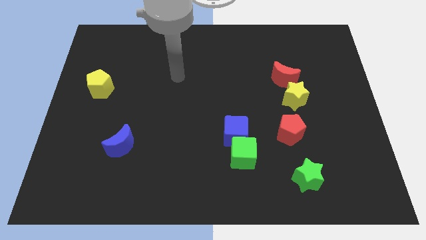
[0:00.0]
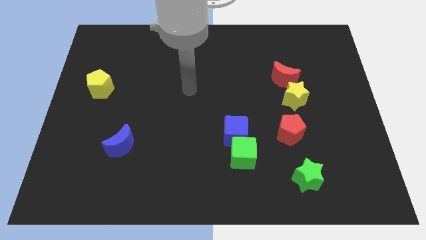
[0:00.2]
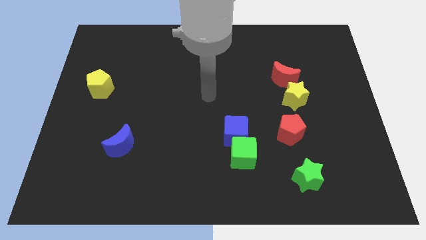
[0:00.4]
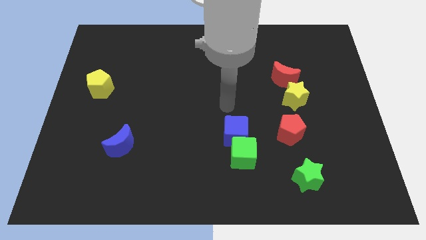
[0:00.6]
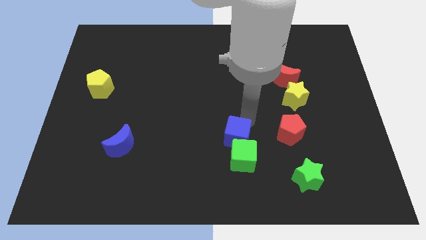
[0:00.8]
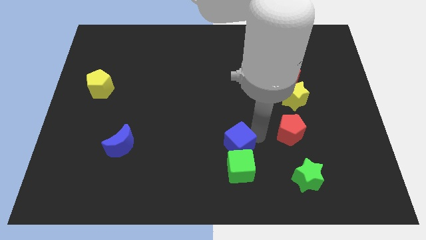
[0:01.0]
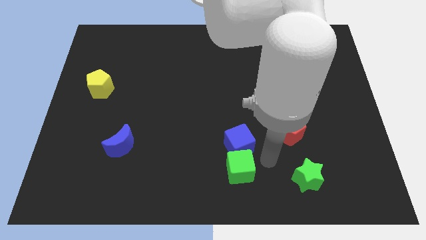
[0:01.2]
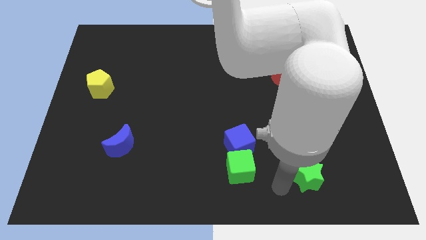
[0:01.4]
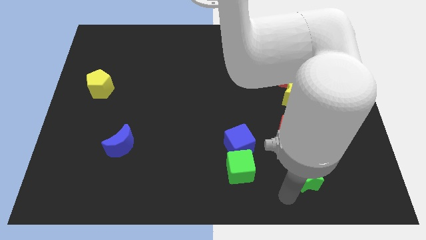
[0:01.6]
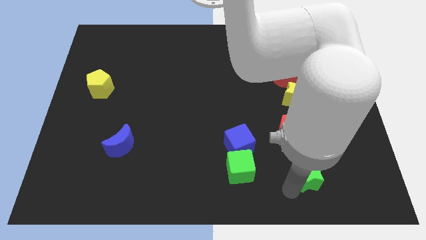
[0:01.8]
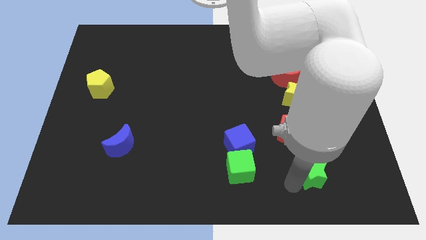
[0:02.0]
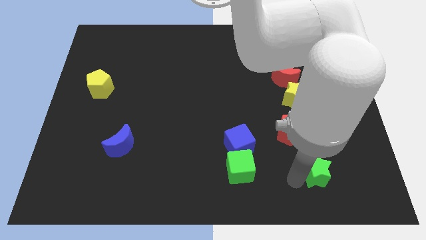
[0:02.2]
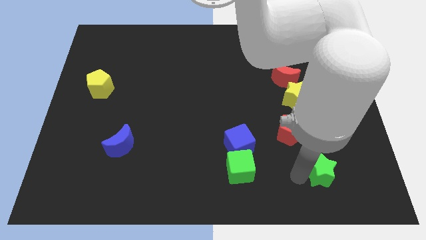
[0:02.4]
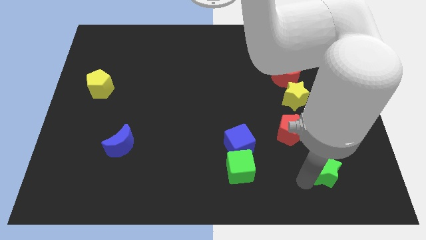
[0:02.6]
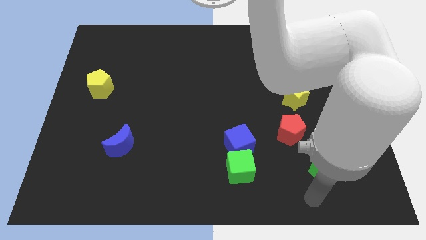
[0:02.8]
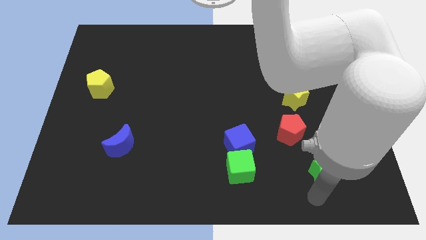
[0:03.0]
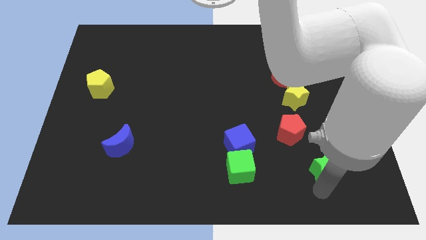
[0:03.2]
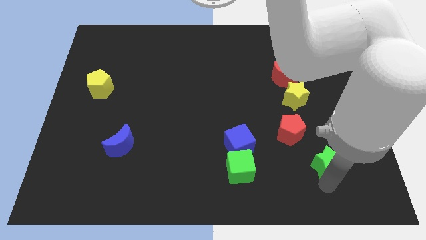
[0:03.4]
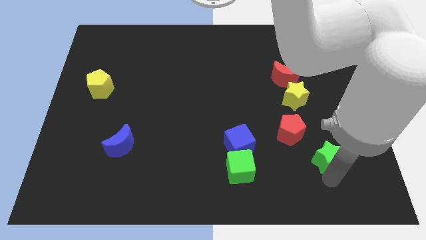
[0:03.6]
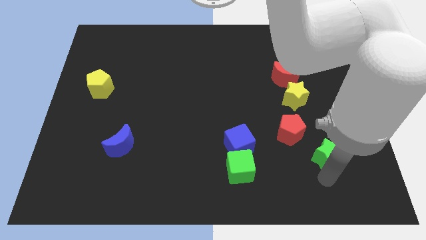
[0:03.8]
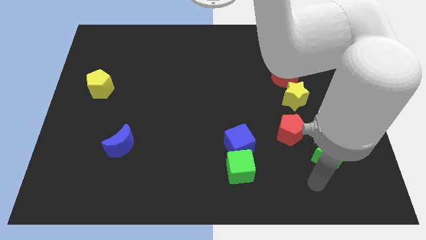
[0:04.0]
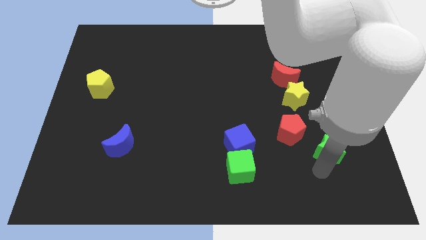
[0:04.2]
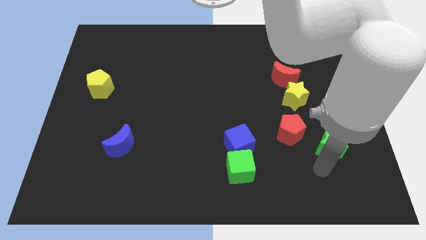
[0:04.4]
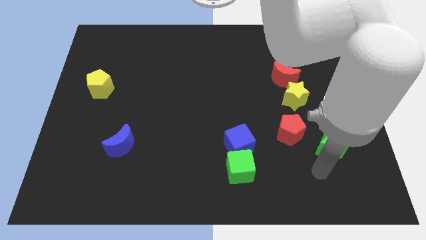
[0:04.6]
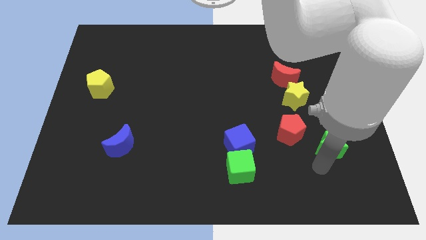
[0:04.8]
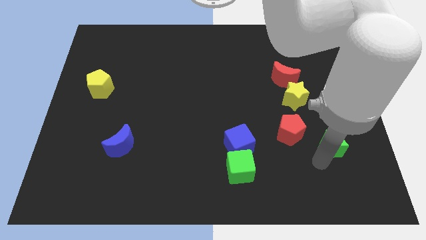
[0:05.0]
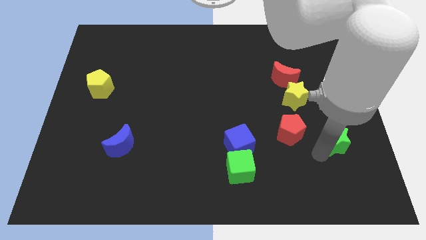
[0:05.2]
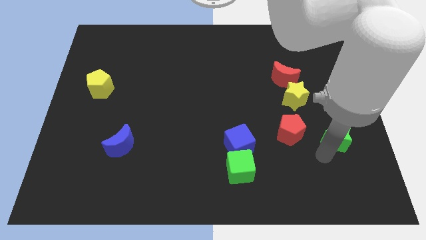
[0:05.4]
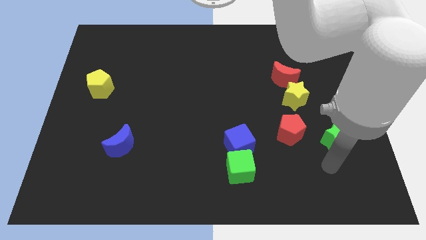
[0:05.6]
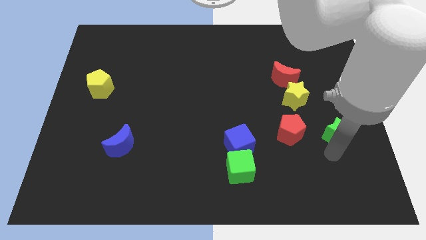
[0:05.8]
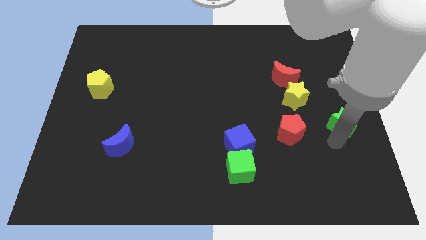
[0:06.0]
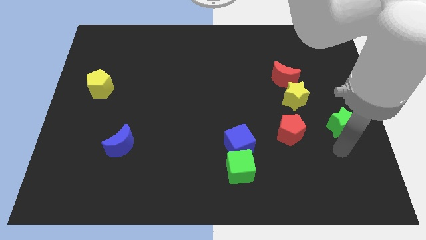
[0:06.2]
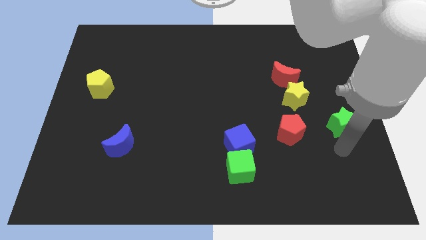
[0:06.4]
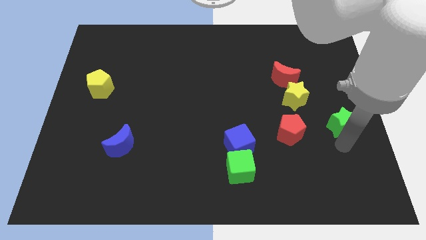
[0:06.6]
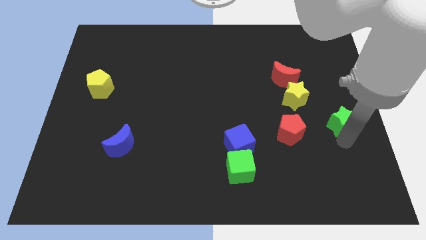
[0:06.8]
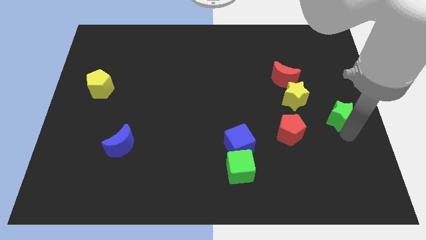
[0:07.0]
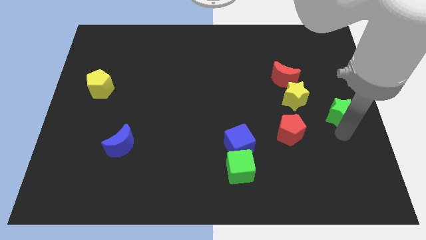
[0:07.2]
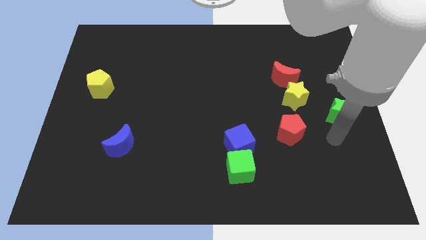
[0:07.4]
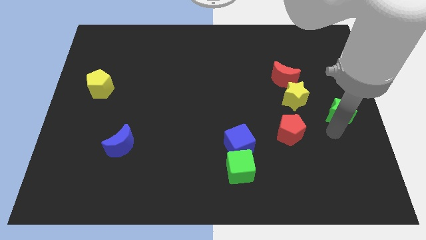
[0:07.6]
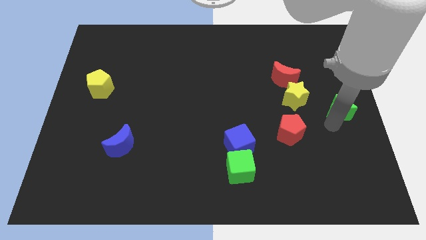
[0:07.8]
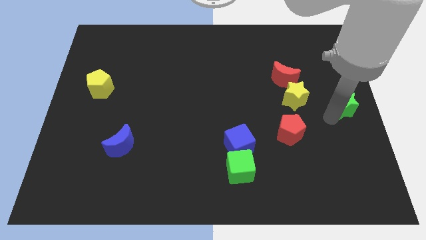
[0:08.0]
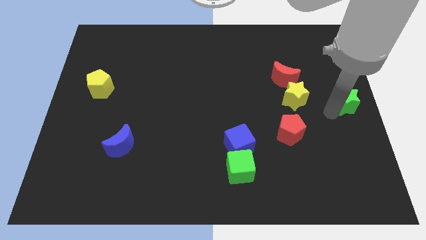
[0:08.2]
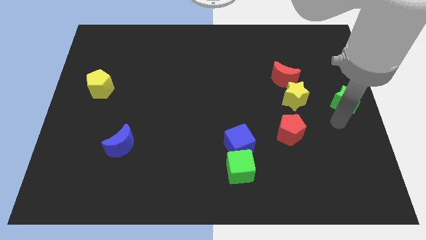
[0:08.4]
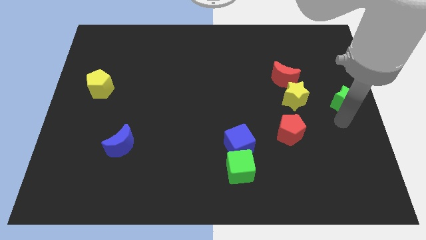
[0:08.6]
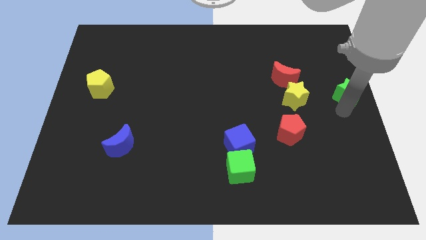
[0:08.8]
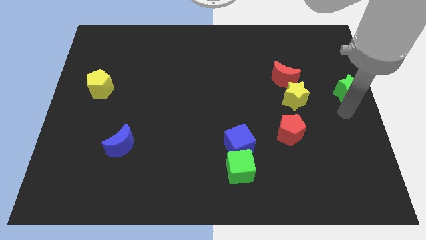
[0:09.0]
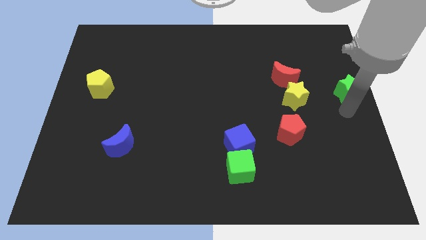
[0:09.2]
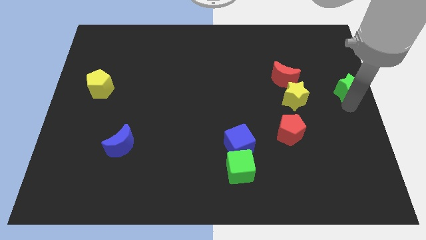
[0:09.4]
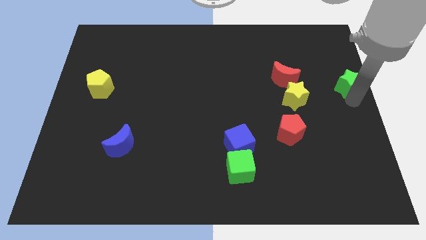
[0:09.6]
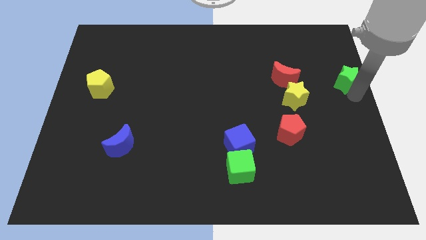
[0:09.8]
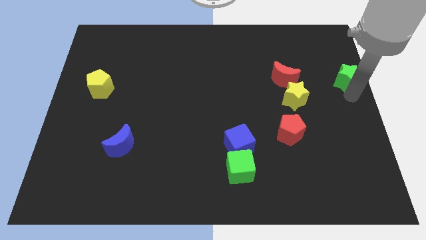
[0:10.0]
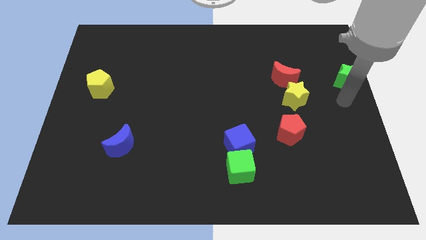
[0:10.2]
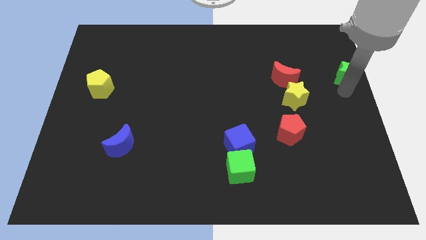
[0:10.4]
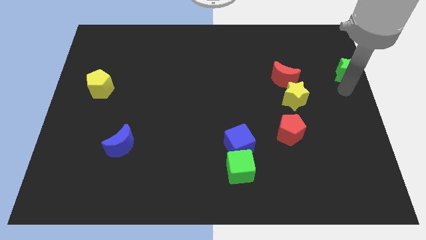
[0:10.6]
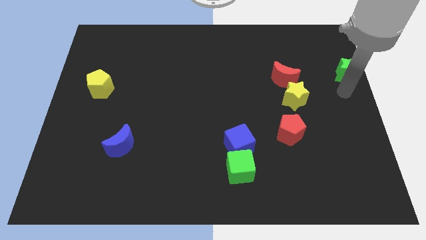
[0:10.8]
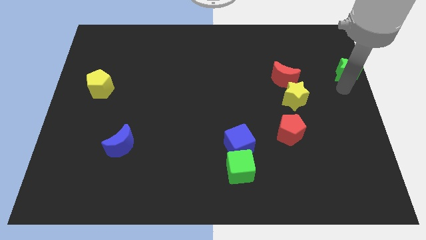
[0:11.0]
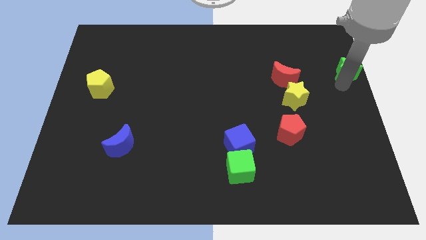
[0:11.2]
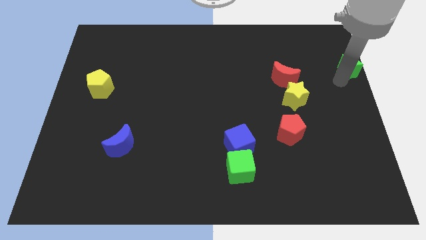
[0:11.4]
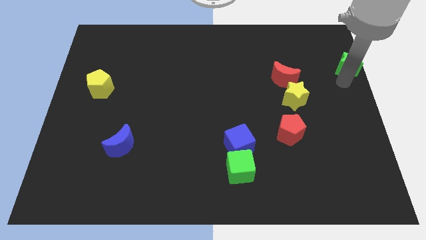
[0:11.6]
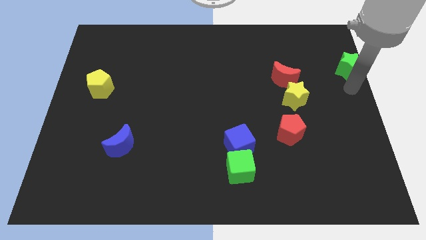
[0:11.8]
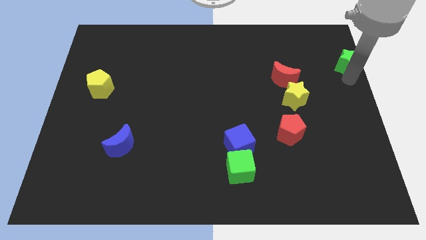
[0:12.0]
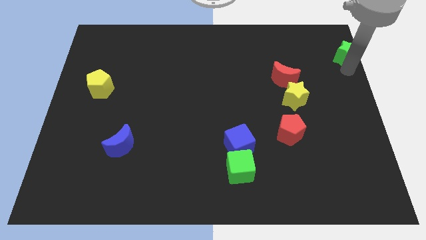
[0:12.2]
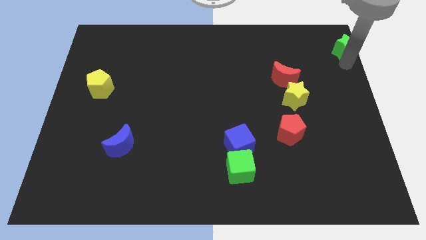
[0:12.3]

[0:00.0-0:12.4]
push the green star to the top right of the board
